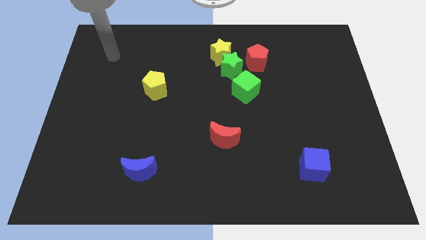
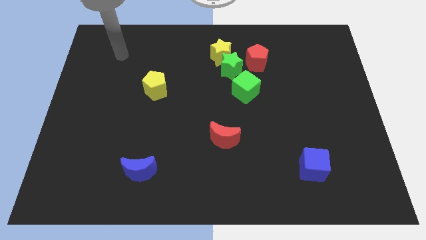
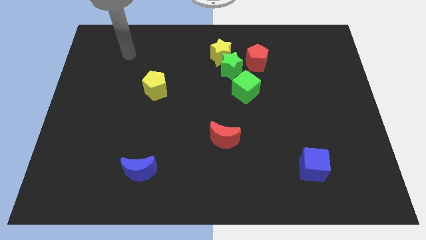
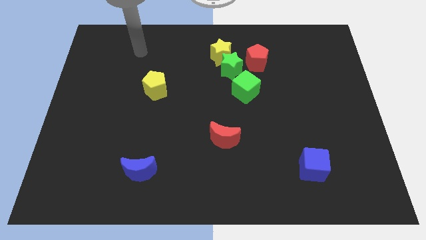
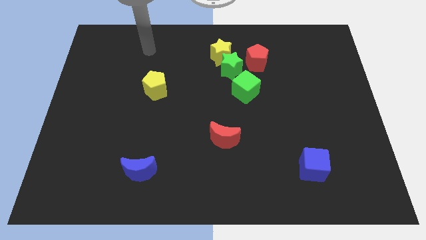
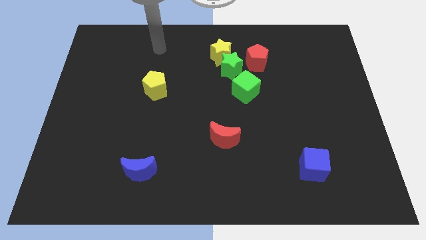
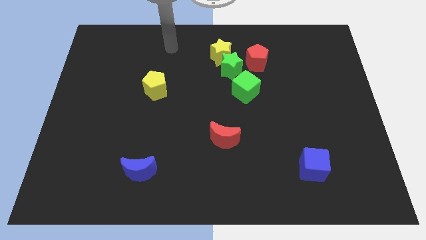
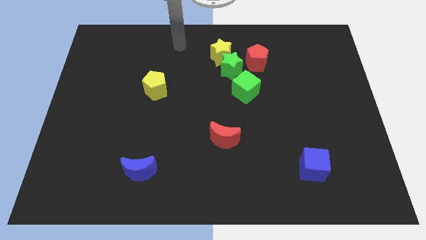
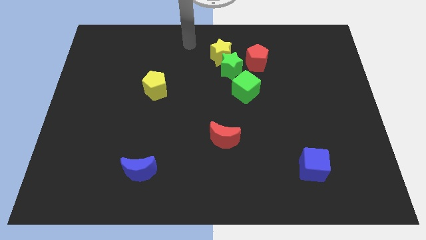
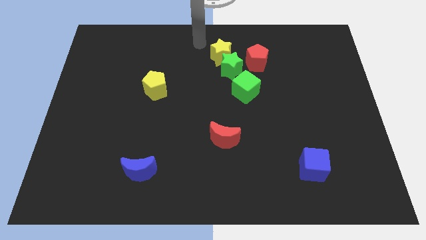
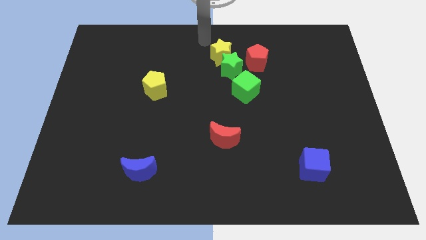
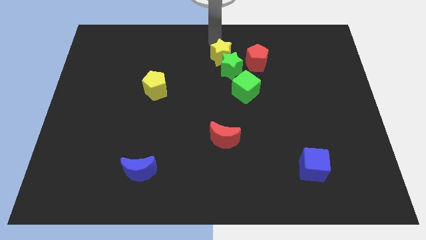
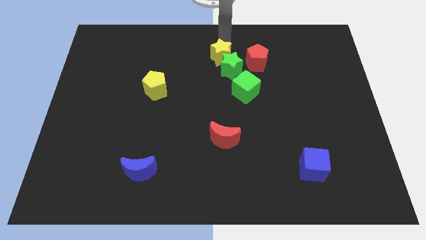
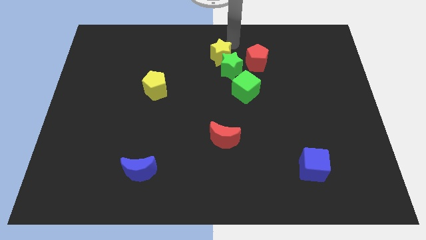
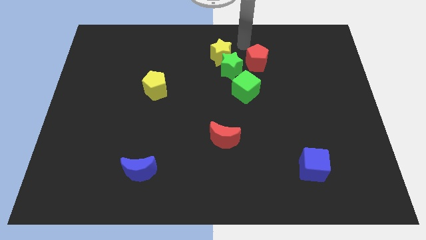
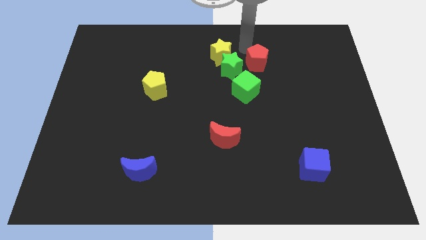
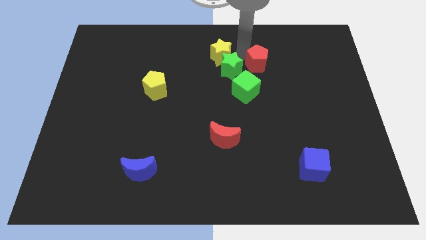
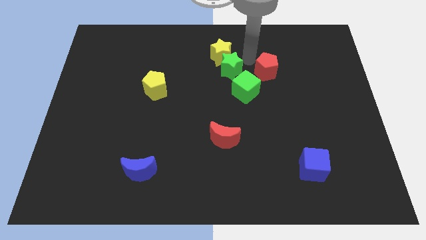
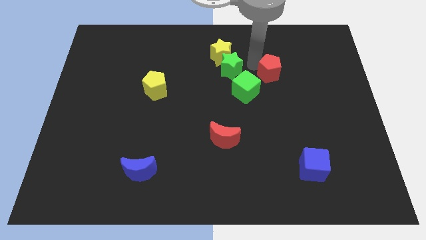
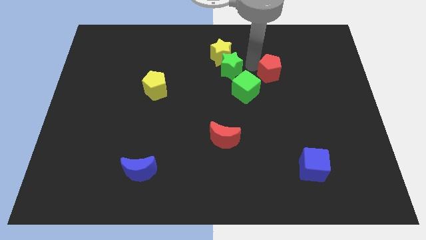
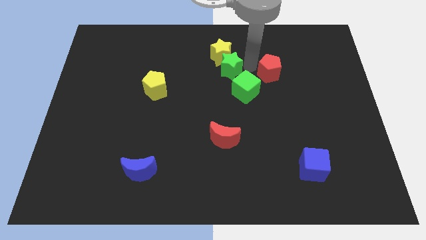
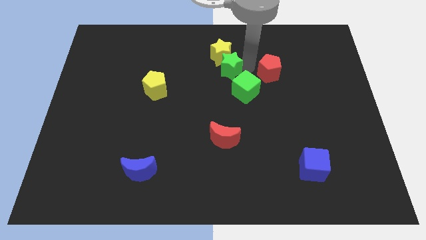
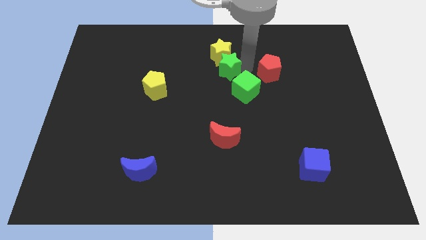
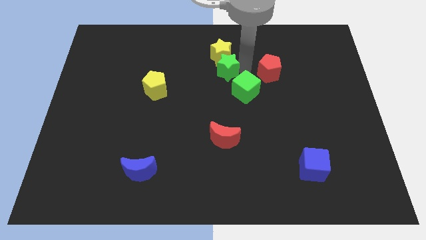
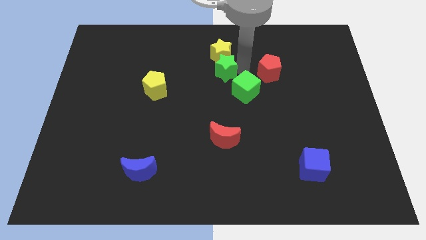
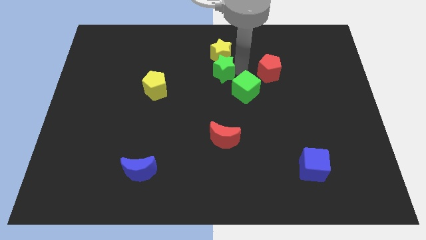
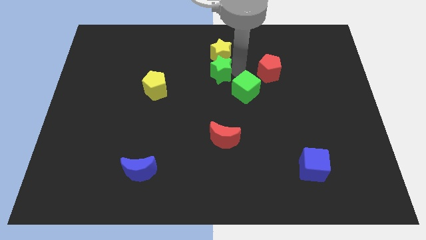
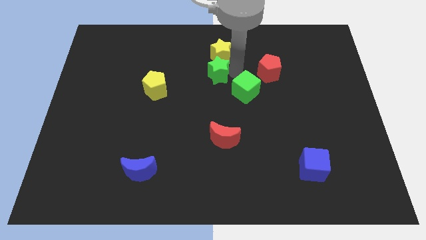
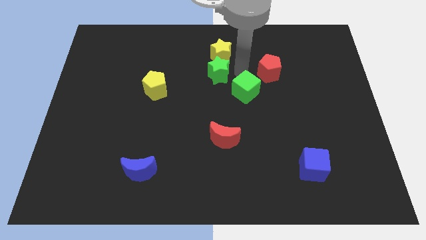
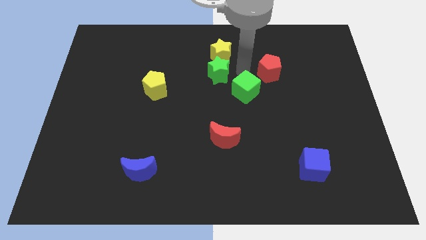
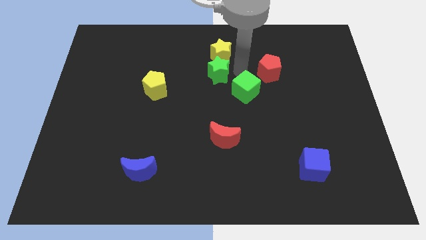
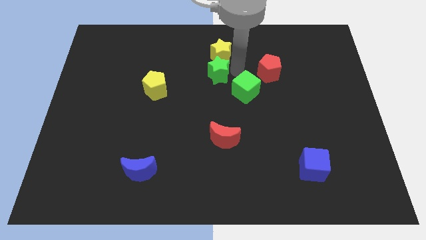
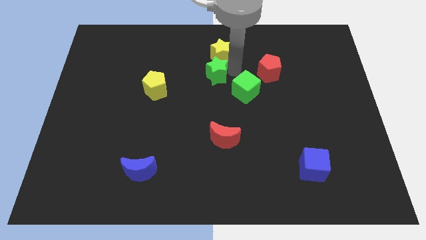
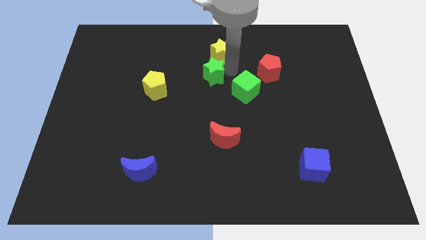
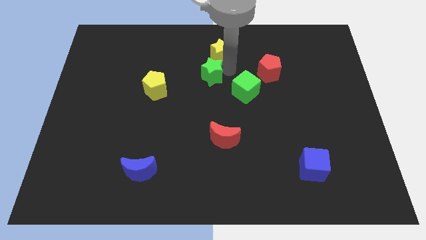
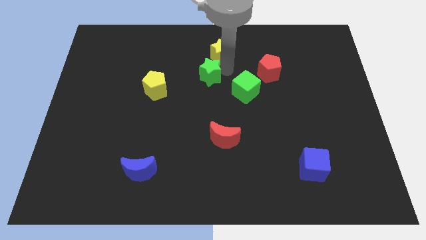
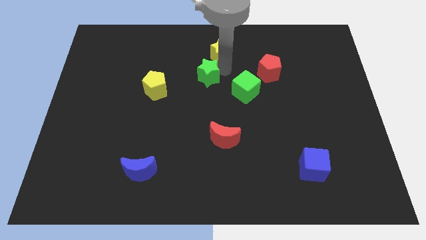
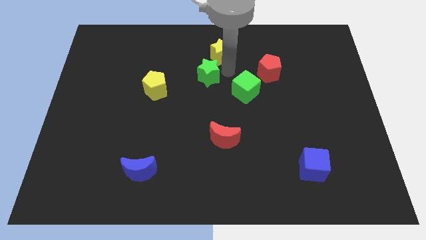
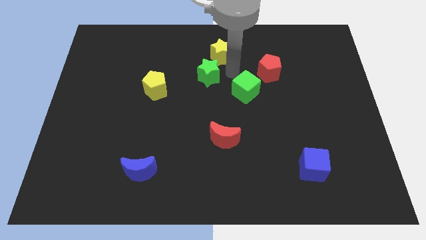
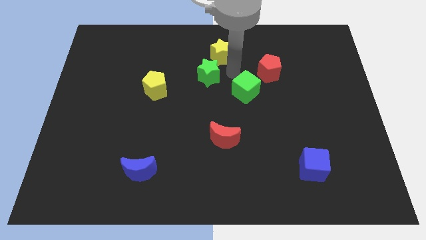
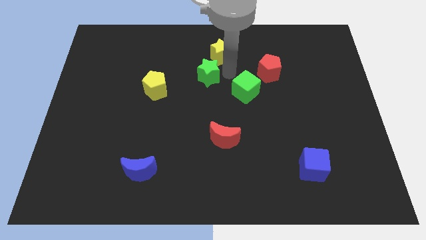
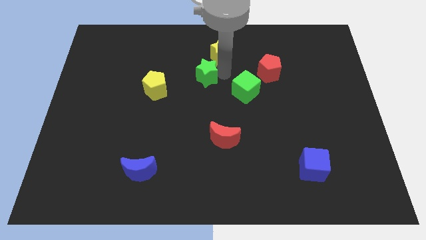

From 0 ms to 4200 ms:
separate the green star from the clump

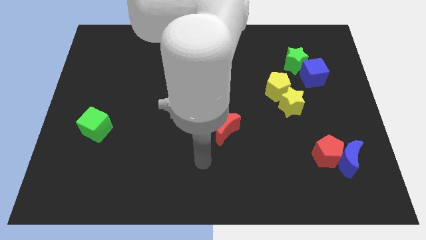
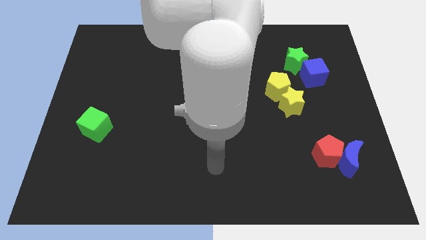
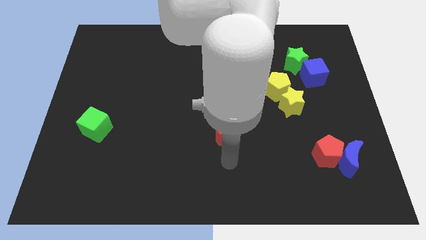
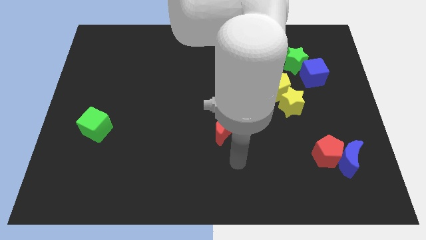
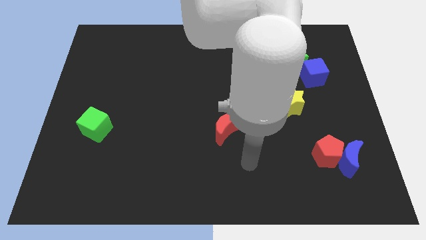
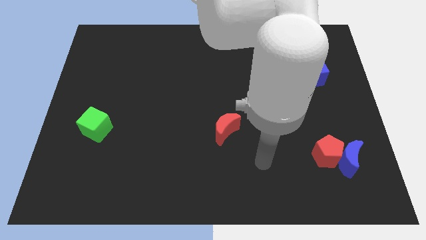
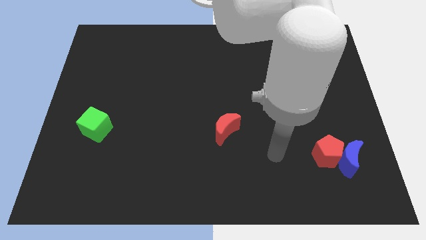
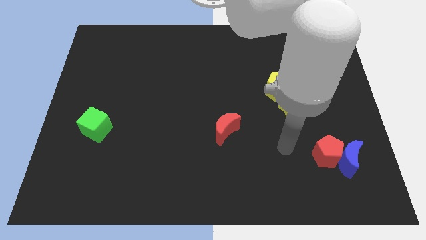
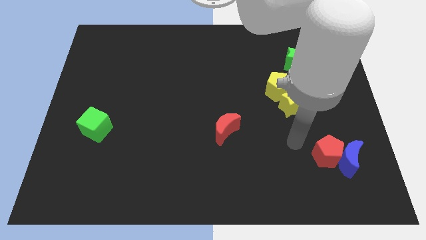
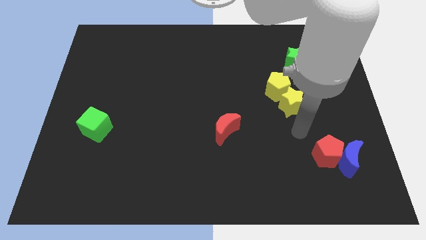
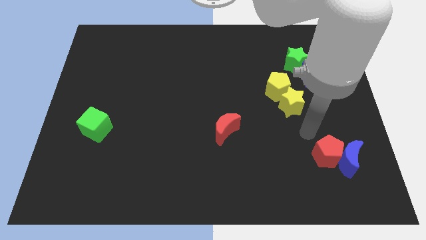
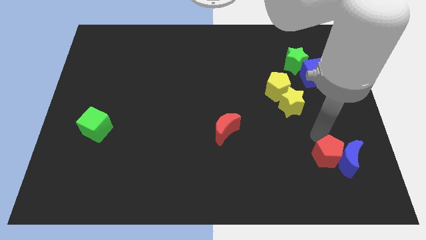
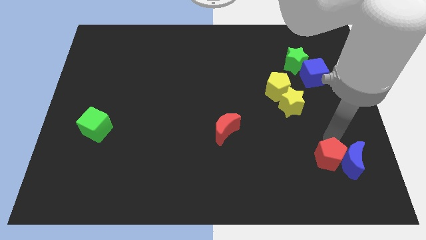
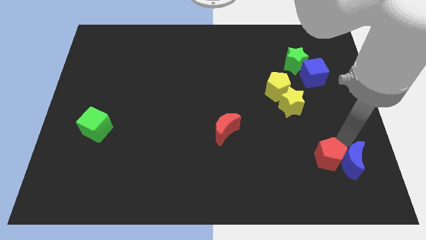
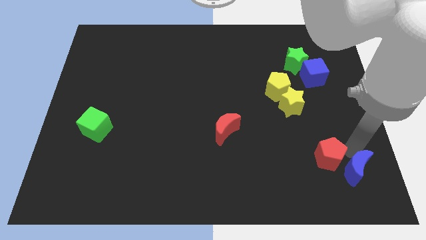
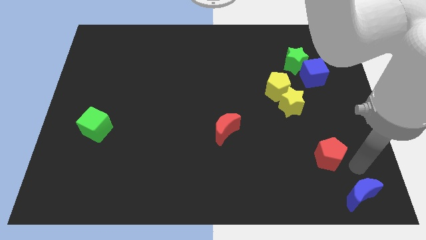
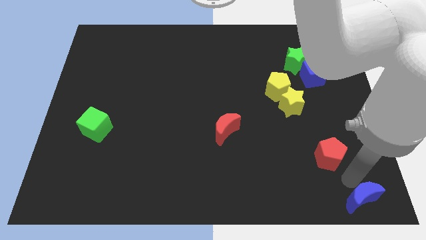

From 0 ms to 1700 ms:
move the red pentagon away from the blue moon

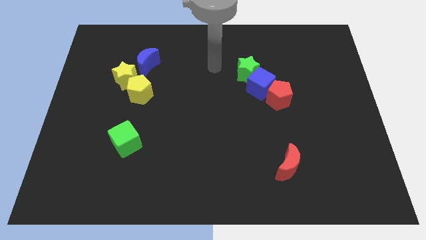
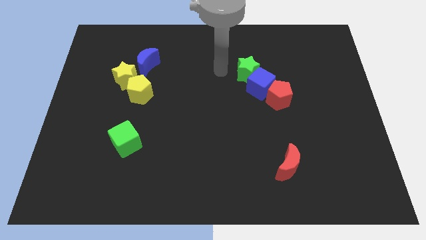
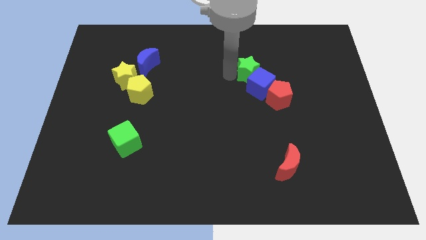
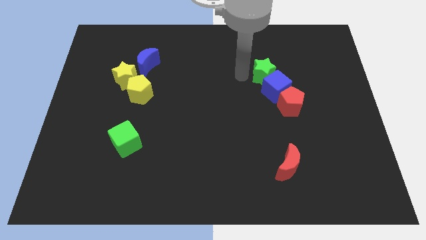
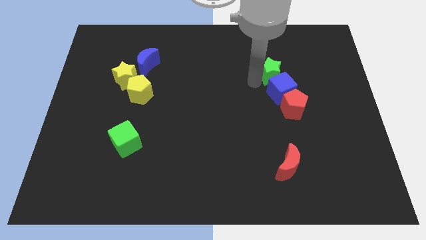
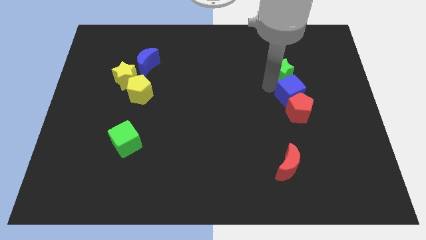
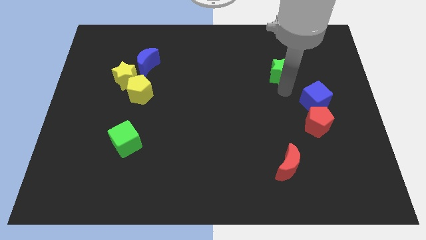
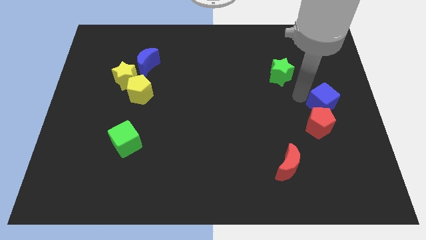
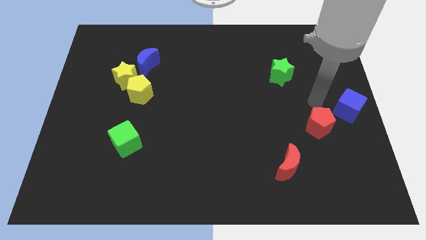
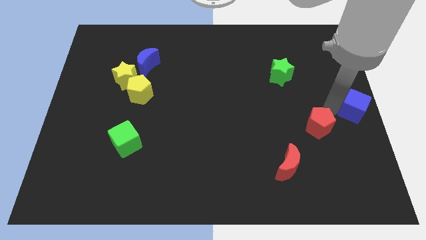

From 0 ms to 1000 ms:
move the red pentagon away from the blue cube

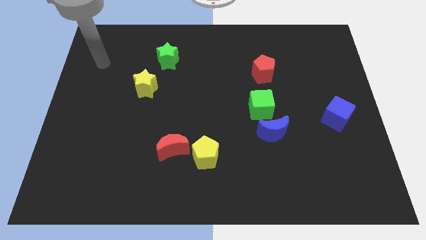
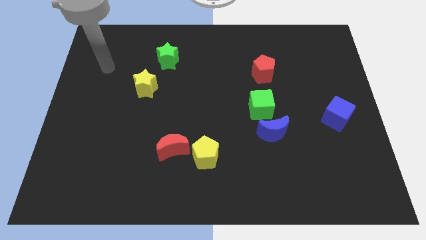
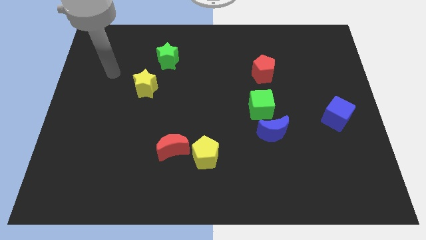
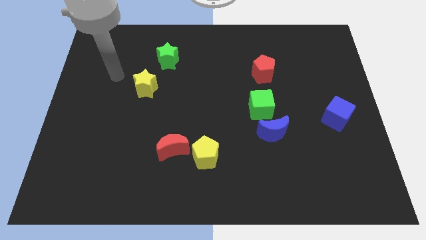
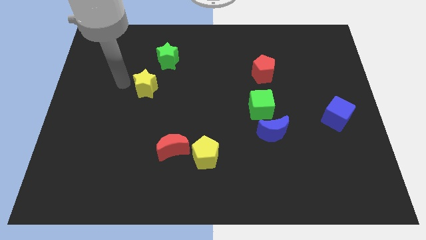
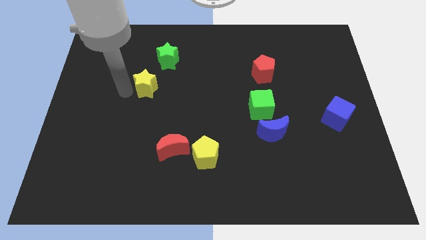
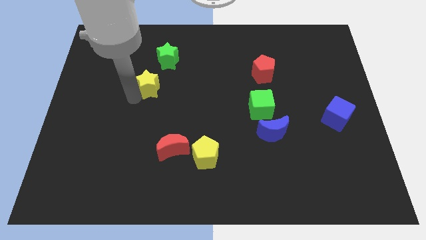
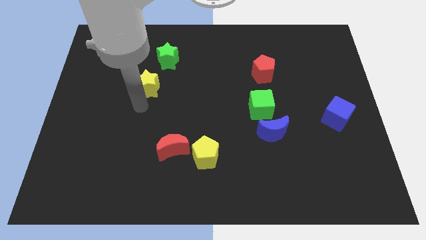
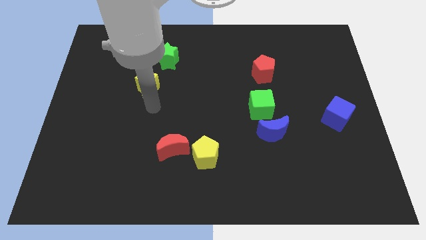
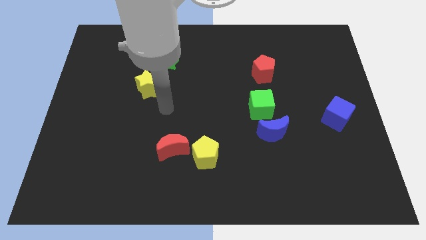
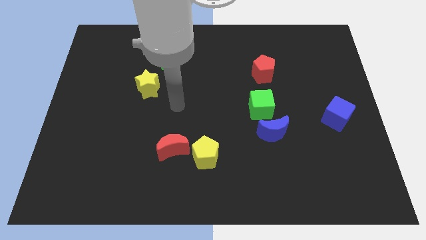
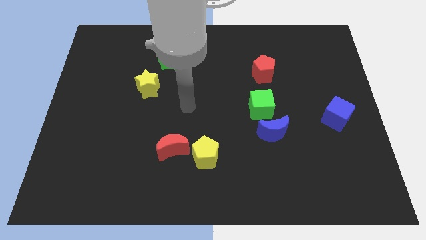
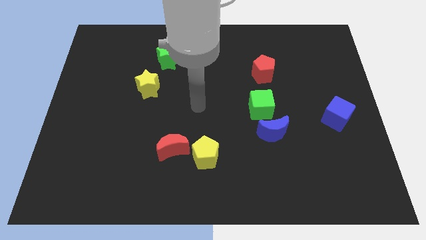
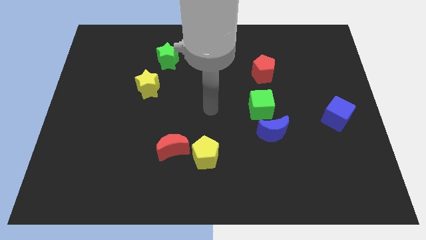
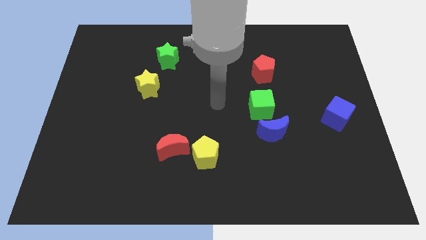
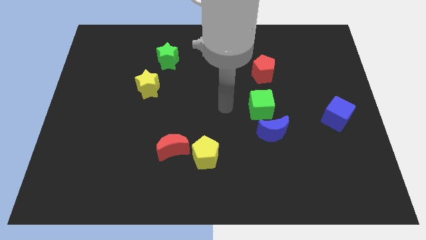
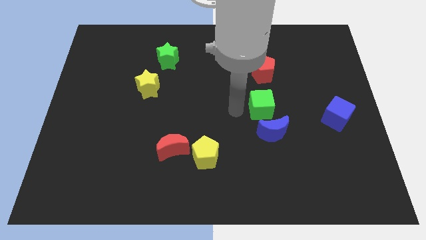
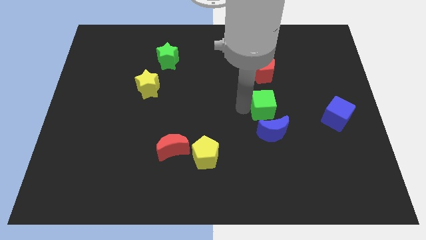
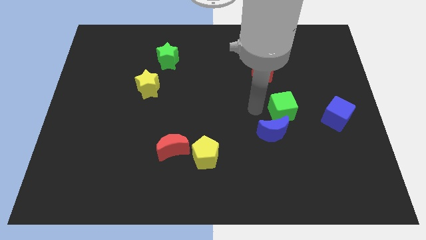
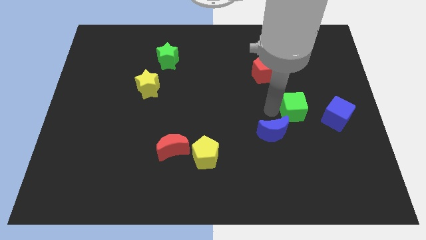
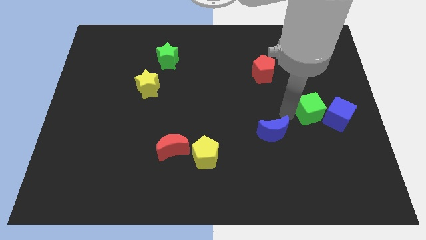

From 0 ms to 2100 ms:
separate the blue moon from the green cube

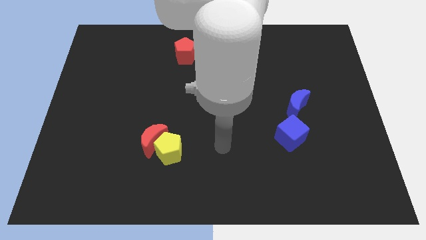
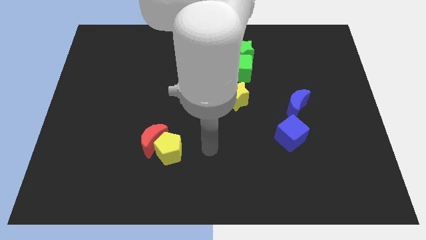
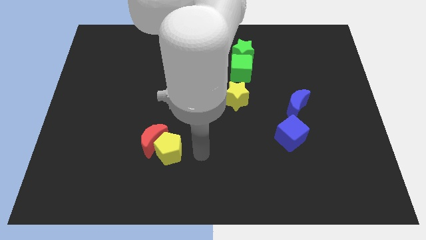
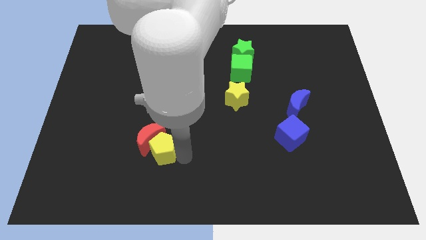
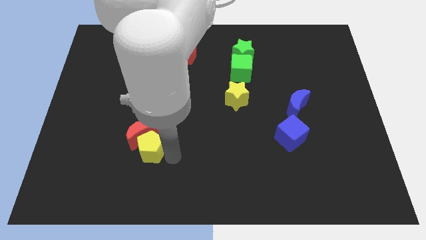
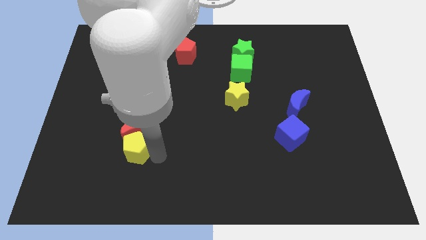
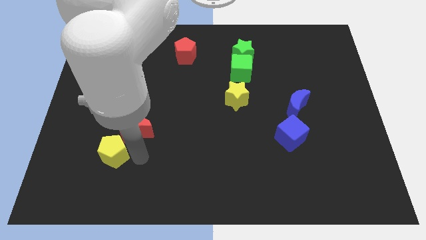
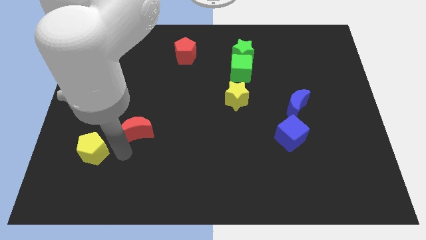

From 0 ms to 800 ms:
move the red moon away from the yellow pentagon
